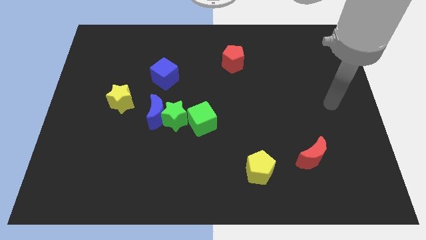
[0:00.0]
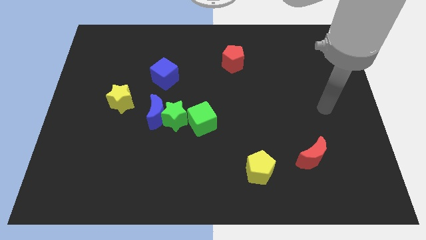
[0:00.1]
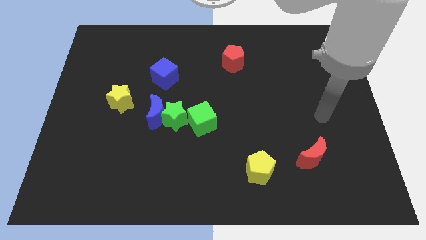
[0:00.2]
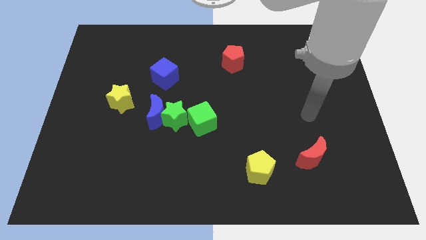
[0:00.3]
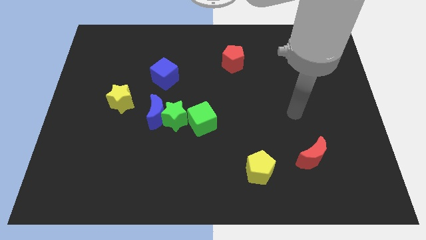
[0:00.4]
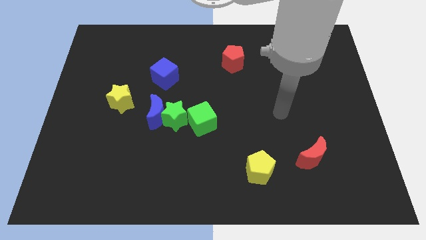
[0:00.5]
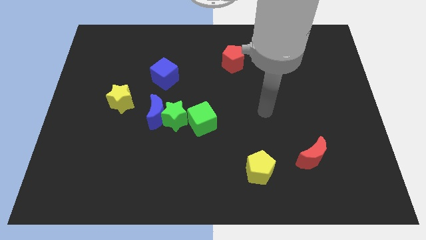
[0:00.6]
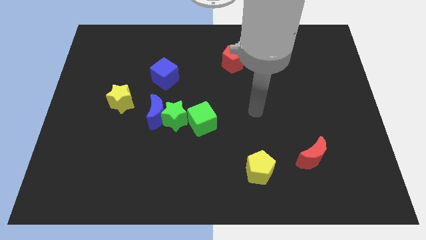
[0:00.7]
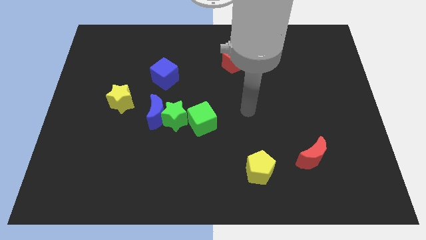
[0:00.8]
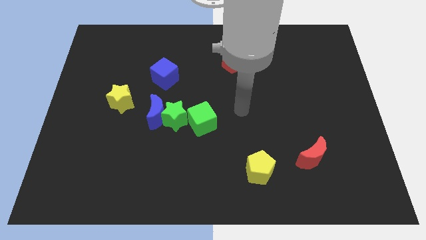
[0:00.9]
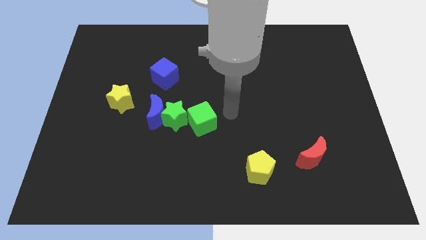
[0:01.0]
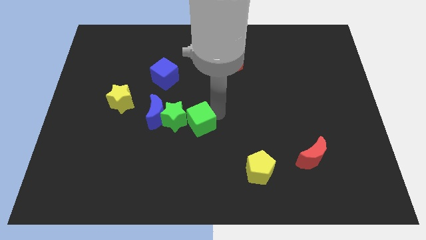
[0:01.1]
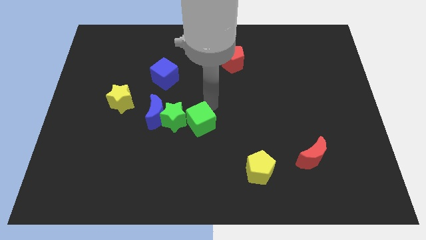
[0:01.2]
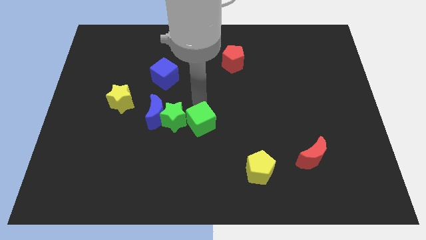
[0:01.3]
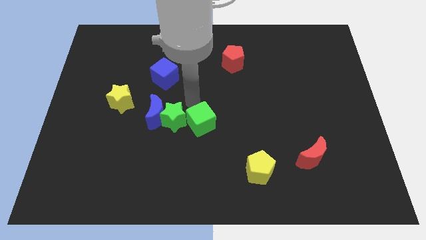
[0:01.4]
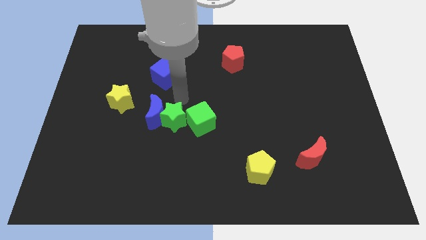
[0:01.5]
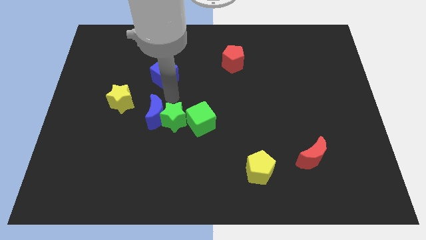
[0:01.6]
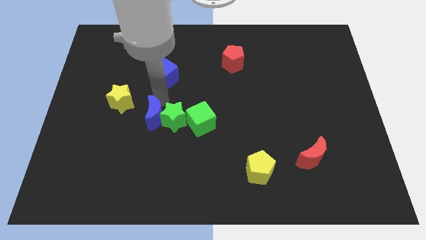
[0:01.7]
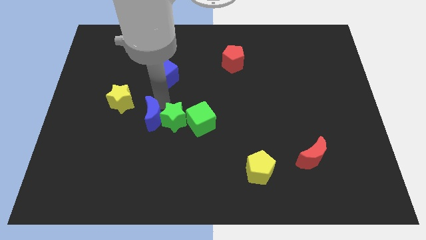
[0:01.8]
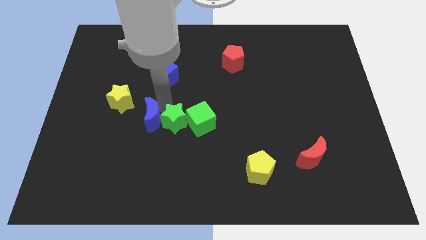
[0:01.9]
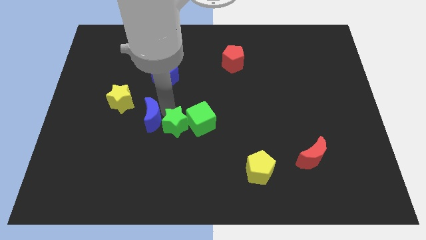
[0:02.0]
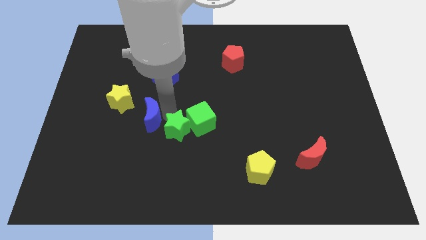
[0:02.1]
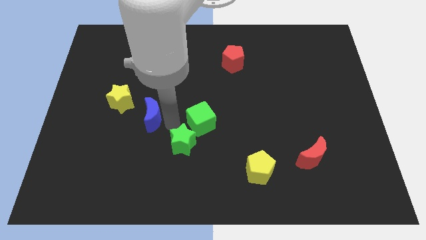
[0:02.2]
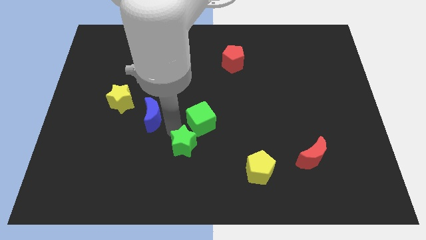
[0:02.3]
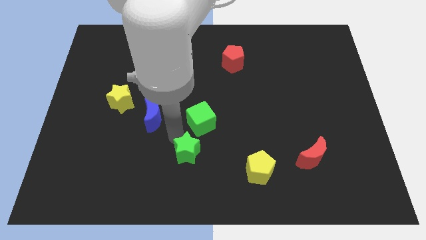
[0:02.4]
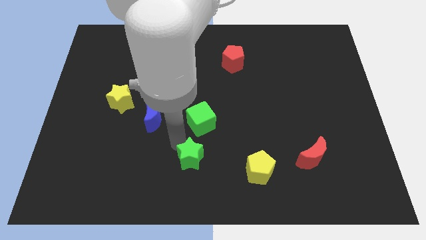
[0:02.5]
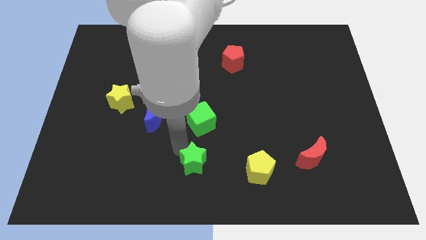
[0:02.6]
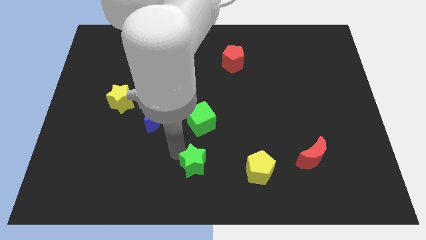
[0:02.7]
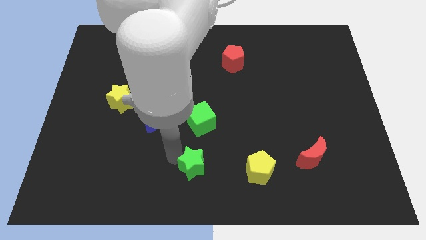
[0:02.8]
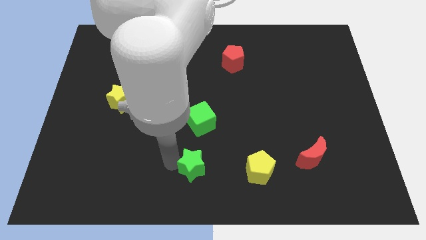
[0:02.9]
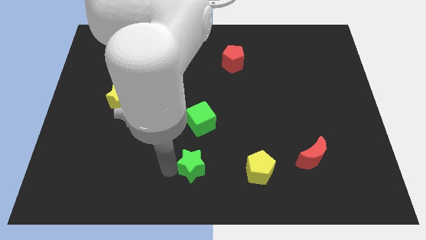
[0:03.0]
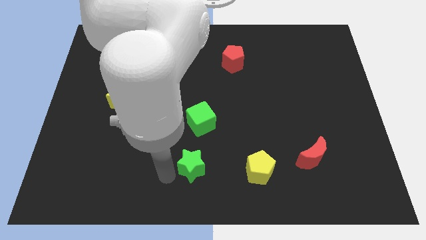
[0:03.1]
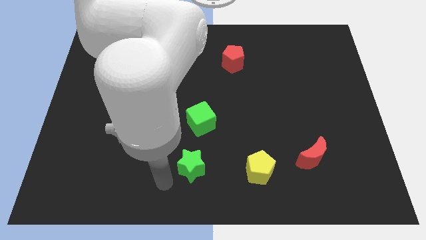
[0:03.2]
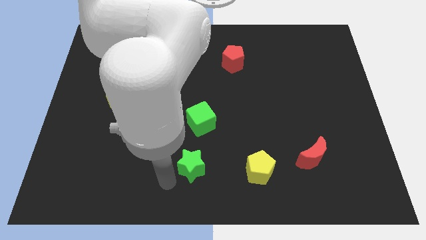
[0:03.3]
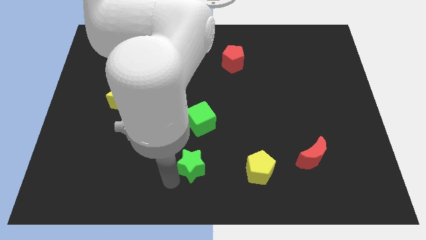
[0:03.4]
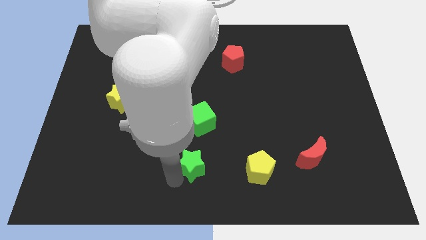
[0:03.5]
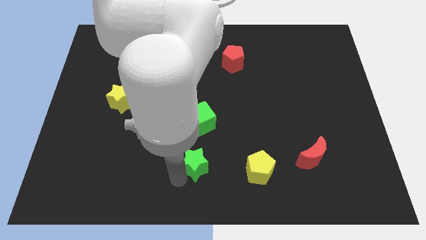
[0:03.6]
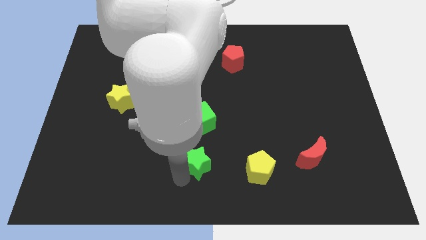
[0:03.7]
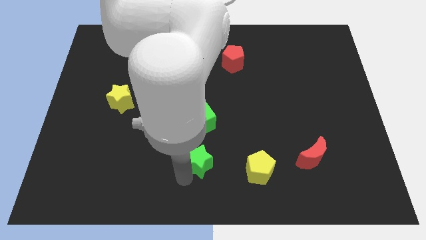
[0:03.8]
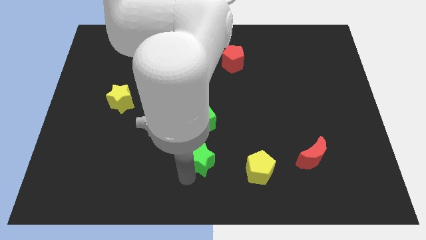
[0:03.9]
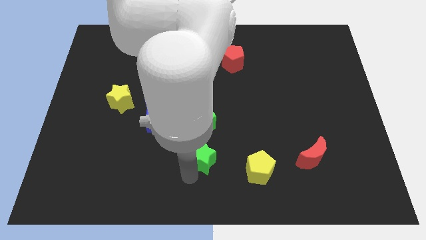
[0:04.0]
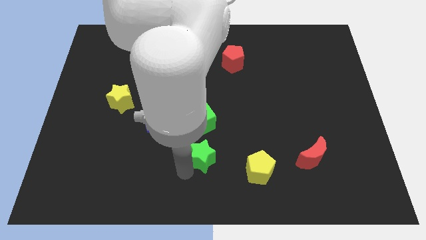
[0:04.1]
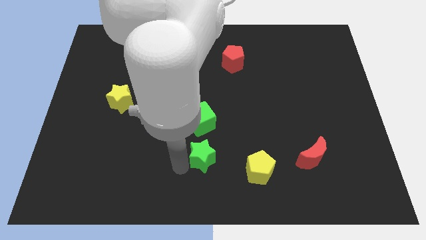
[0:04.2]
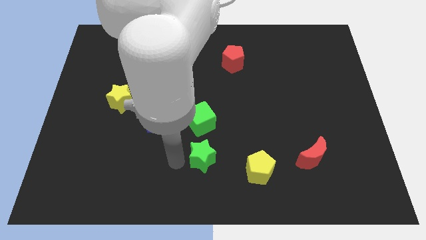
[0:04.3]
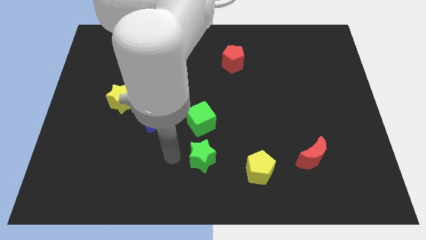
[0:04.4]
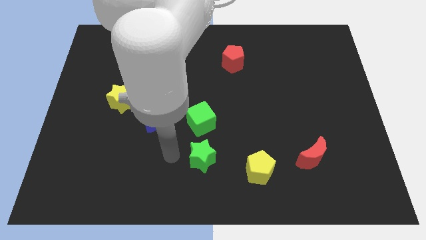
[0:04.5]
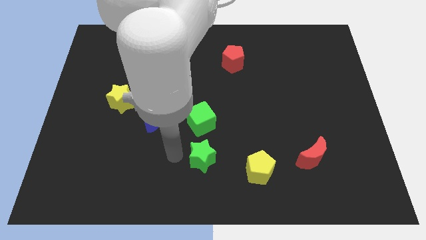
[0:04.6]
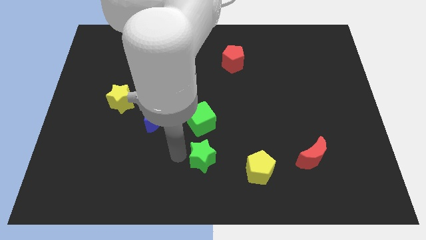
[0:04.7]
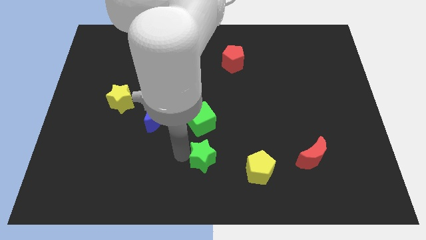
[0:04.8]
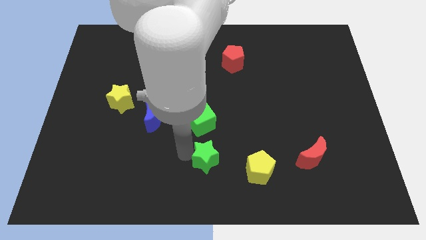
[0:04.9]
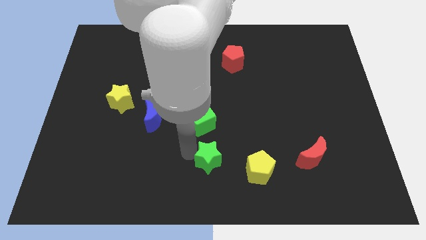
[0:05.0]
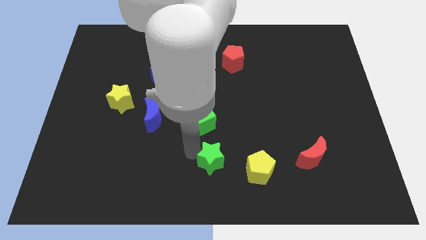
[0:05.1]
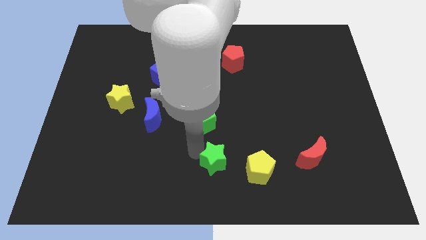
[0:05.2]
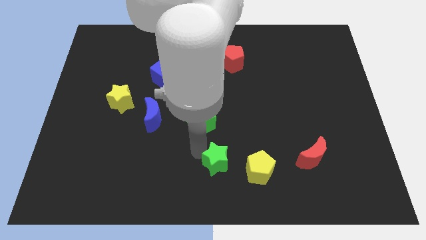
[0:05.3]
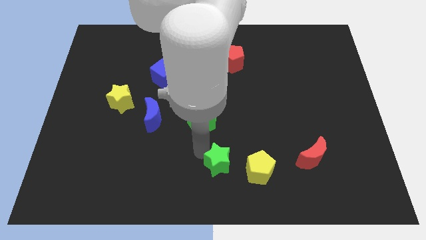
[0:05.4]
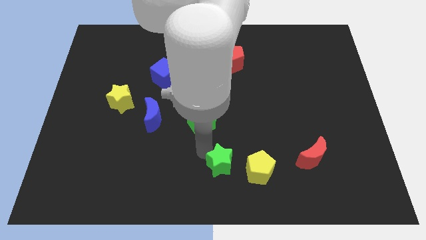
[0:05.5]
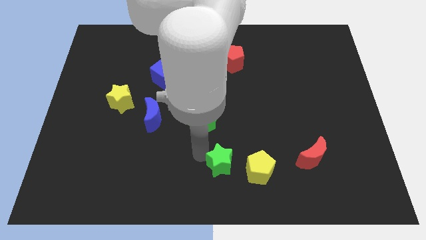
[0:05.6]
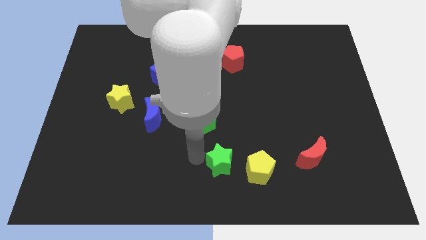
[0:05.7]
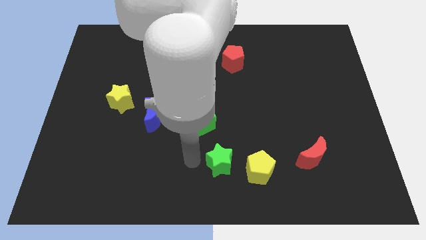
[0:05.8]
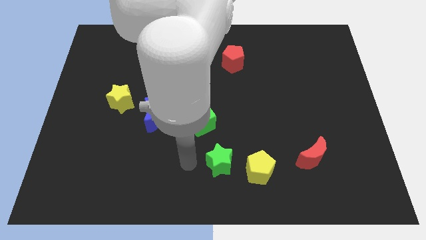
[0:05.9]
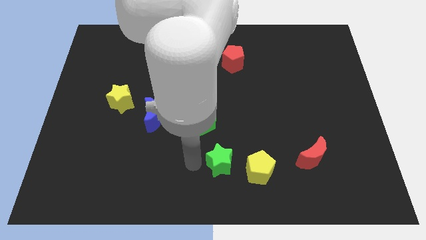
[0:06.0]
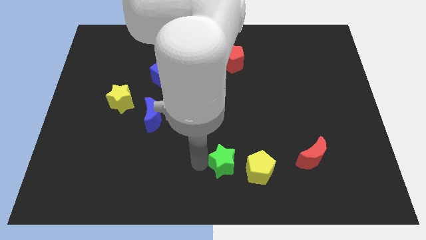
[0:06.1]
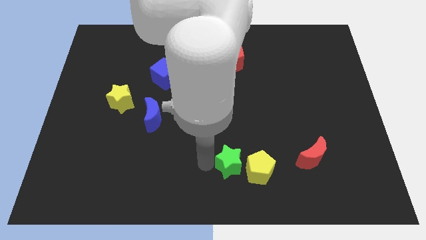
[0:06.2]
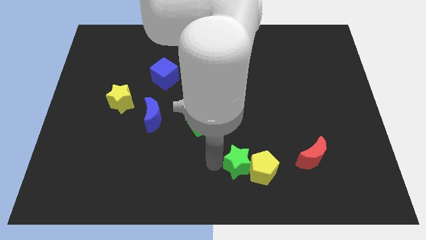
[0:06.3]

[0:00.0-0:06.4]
slide the green star to the yellow pentagon
